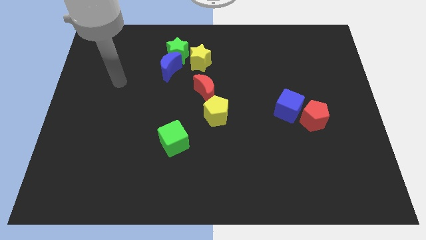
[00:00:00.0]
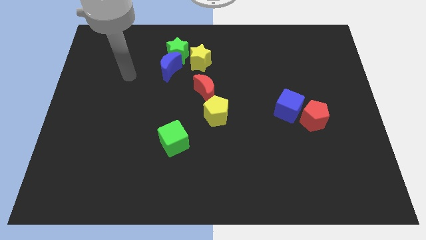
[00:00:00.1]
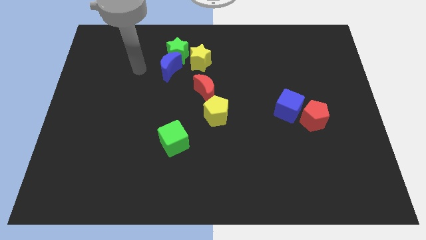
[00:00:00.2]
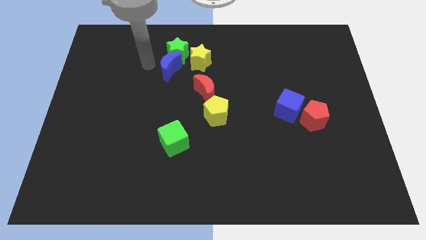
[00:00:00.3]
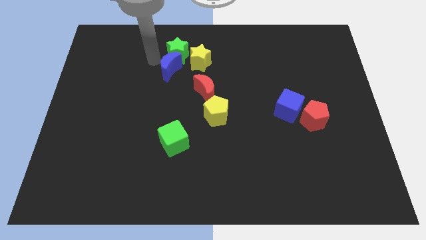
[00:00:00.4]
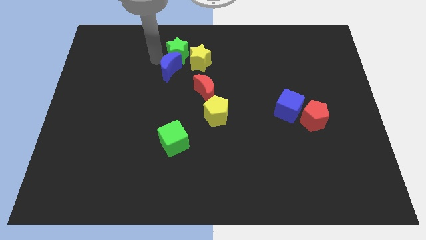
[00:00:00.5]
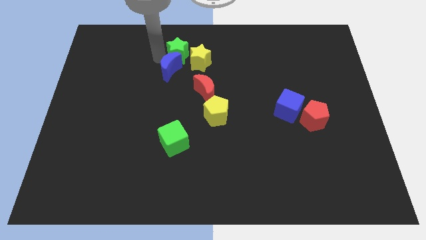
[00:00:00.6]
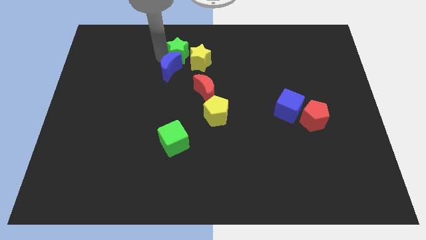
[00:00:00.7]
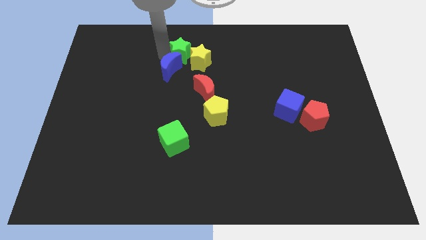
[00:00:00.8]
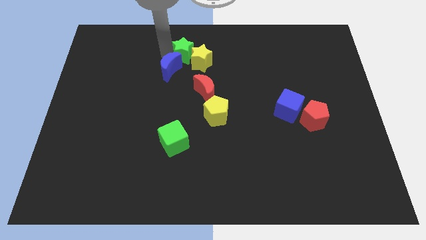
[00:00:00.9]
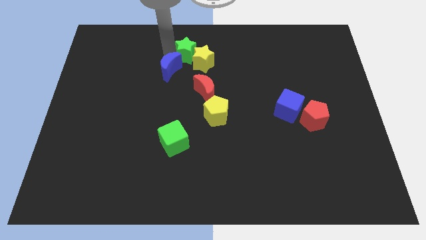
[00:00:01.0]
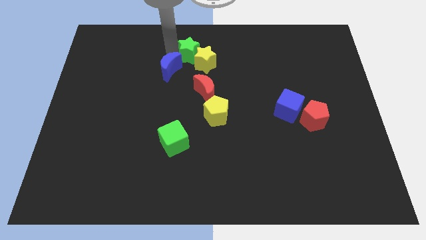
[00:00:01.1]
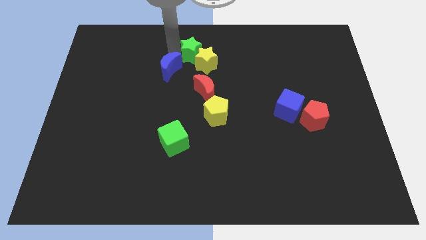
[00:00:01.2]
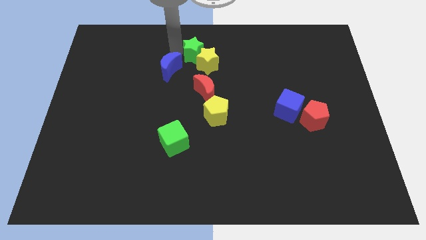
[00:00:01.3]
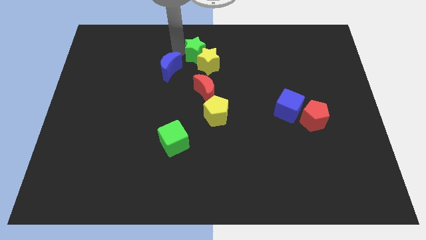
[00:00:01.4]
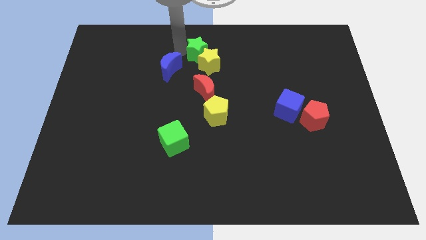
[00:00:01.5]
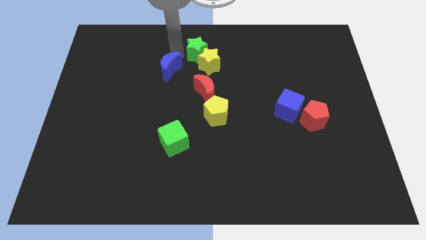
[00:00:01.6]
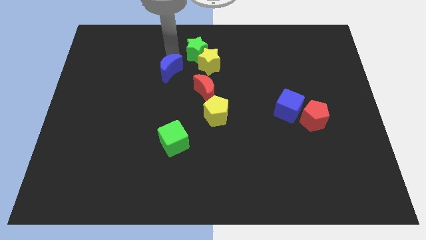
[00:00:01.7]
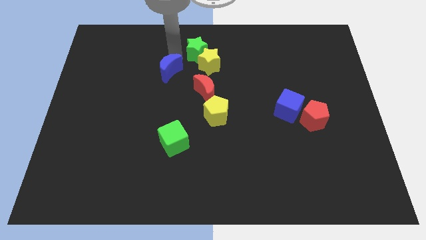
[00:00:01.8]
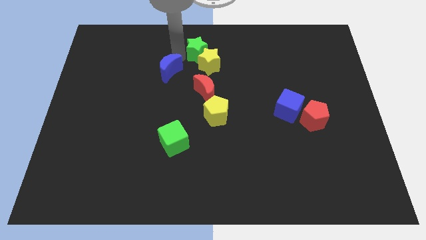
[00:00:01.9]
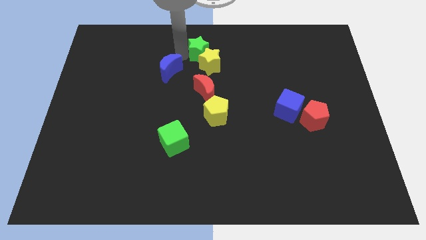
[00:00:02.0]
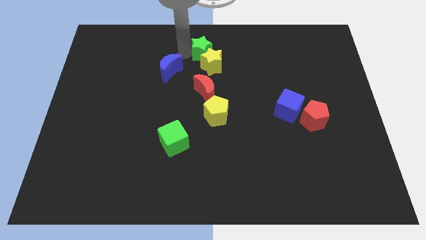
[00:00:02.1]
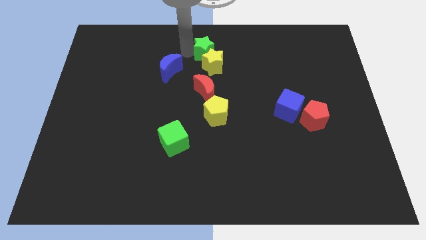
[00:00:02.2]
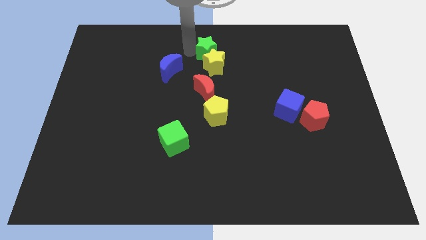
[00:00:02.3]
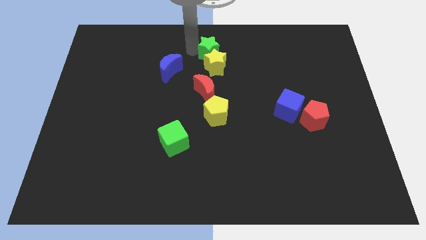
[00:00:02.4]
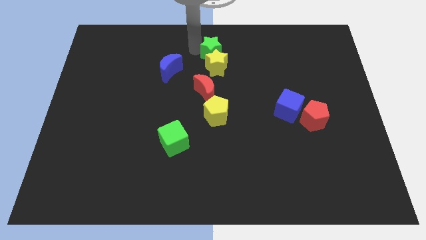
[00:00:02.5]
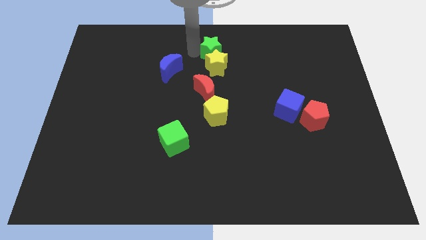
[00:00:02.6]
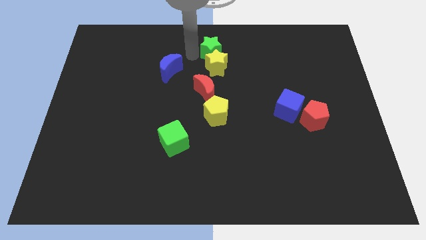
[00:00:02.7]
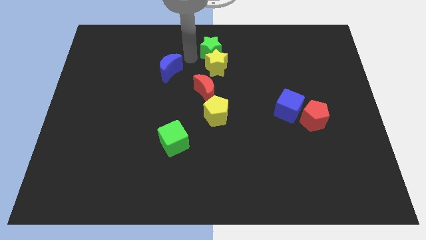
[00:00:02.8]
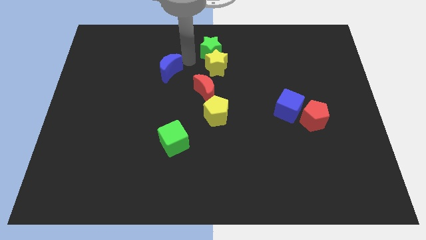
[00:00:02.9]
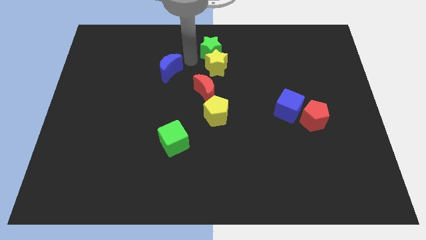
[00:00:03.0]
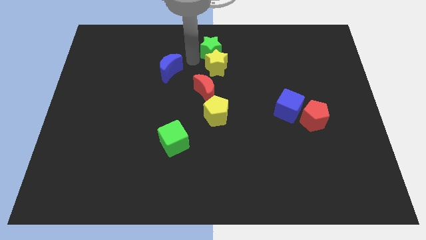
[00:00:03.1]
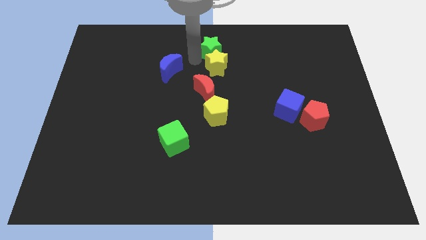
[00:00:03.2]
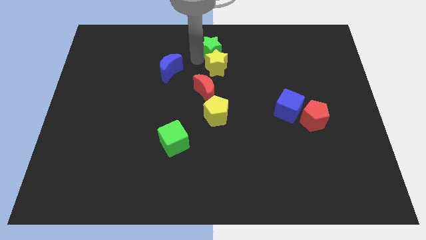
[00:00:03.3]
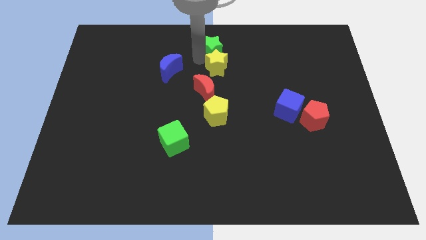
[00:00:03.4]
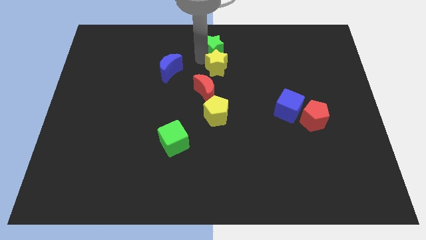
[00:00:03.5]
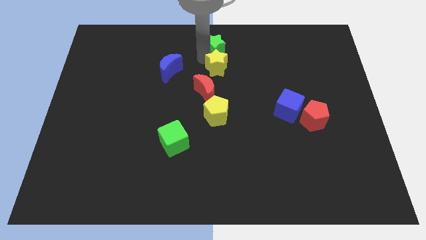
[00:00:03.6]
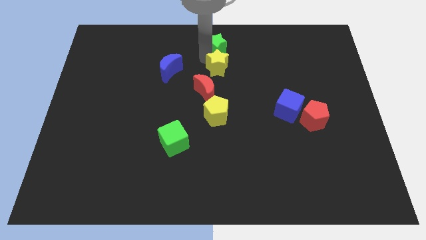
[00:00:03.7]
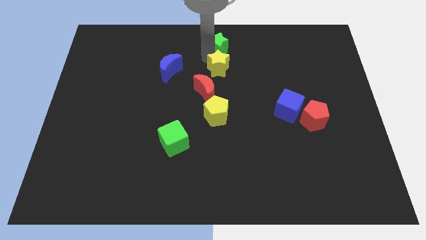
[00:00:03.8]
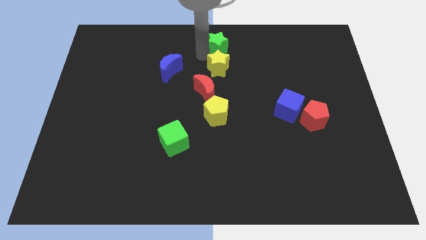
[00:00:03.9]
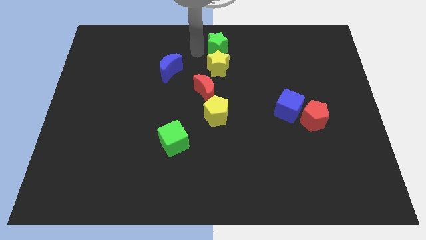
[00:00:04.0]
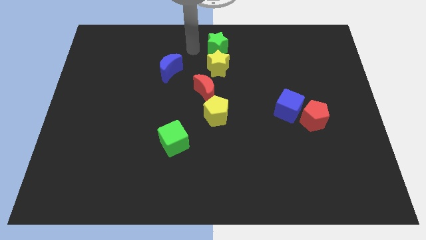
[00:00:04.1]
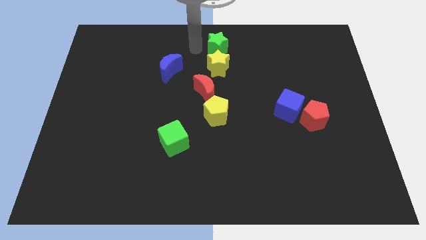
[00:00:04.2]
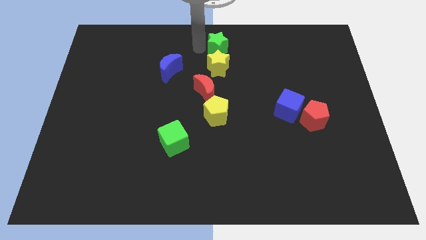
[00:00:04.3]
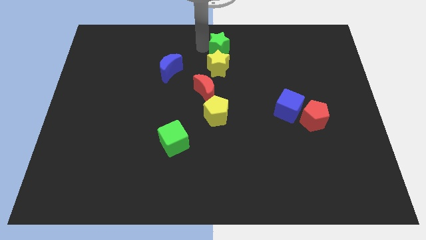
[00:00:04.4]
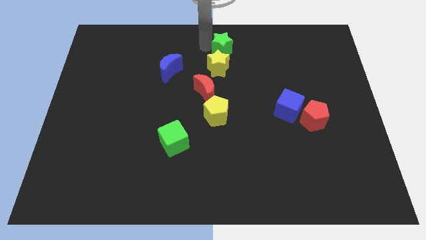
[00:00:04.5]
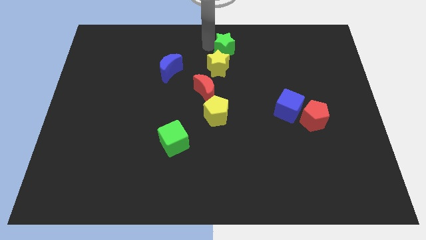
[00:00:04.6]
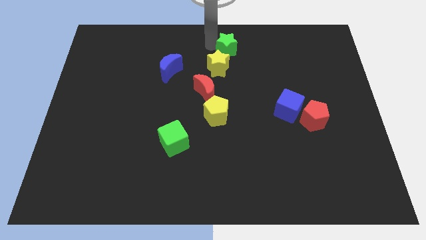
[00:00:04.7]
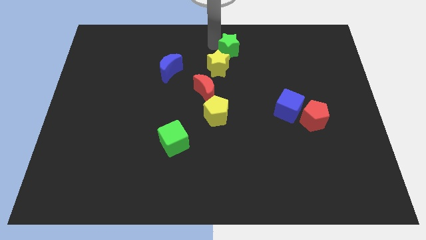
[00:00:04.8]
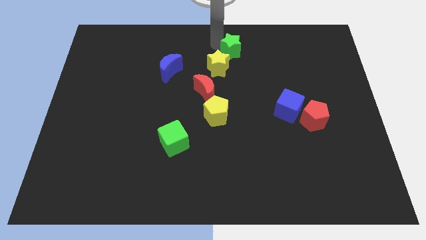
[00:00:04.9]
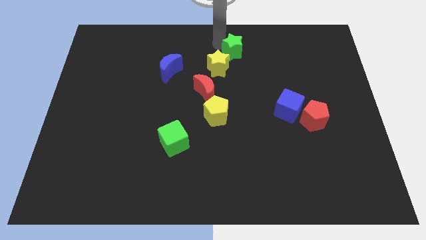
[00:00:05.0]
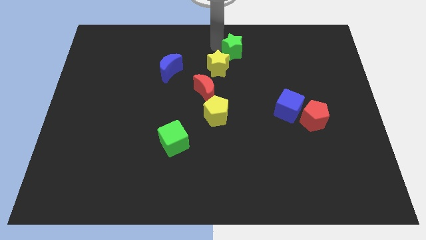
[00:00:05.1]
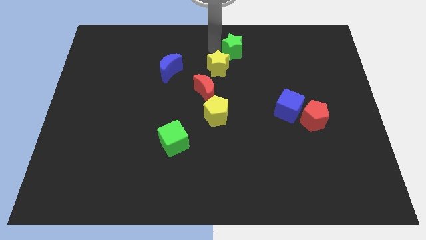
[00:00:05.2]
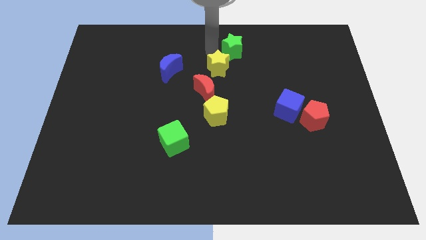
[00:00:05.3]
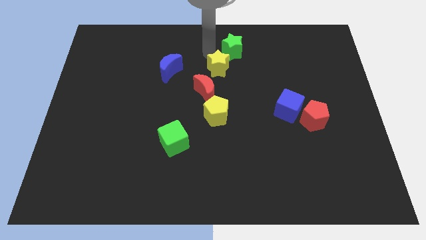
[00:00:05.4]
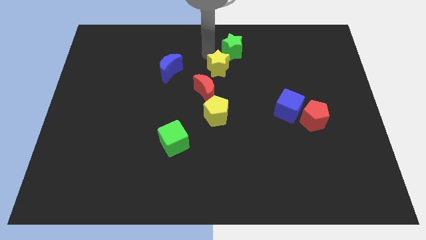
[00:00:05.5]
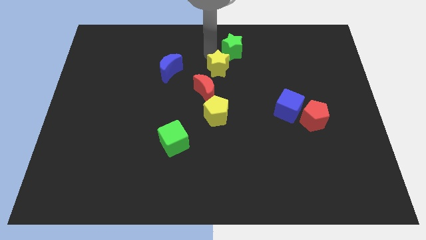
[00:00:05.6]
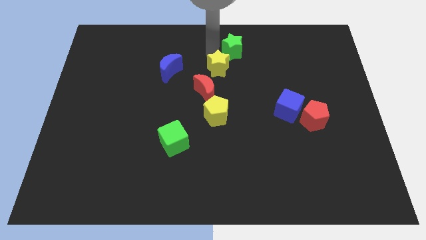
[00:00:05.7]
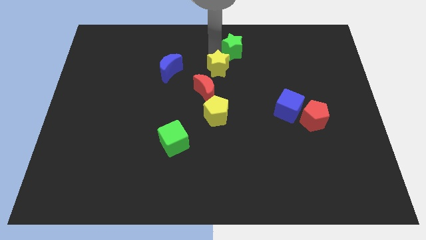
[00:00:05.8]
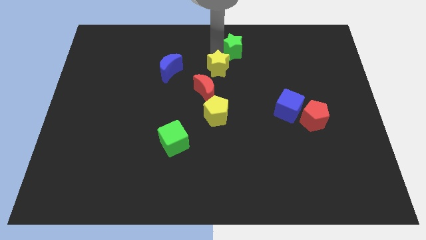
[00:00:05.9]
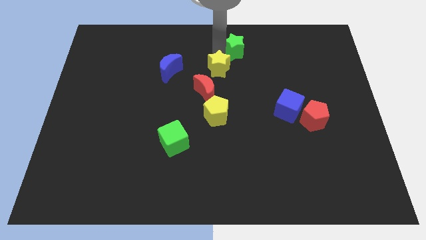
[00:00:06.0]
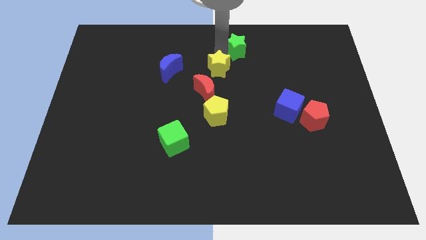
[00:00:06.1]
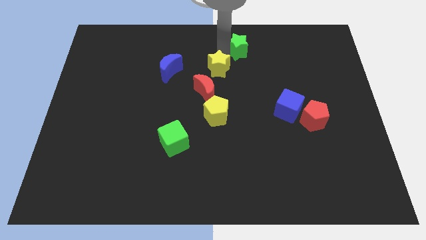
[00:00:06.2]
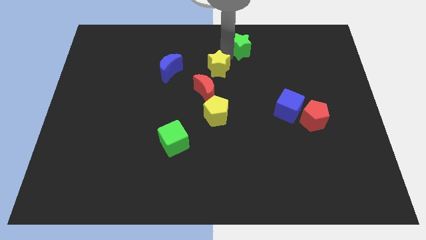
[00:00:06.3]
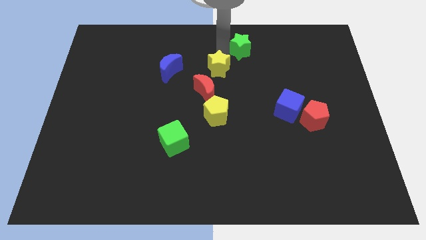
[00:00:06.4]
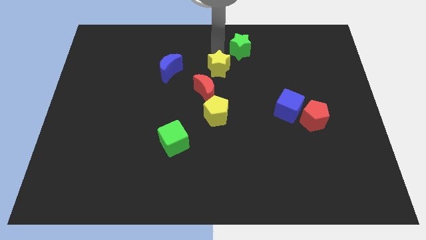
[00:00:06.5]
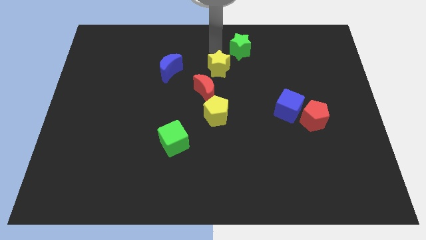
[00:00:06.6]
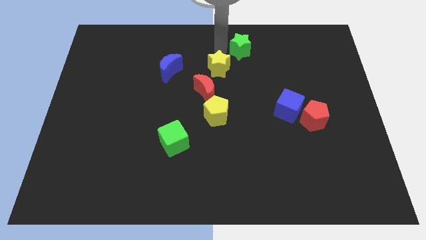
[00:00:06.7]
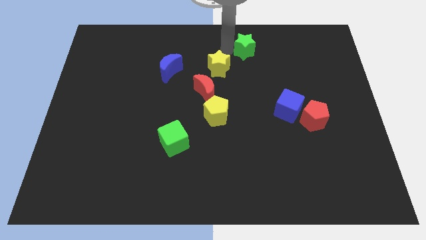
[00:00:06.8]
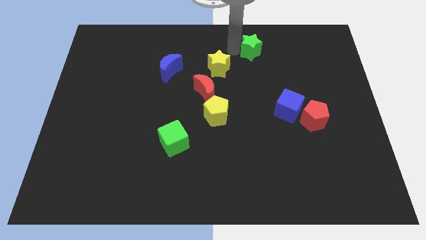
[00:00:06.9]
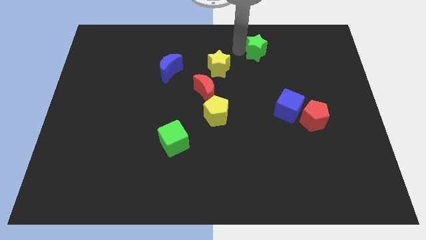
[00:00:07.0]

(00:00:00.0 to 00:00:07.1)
move the green star to the right

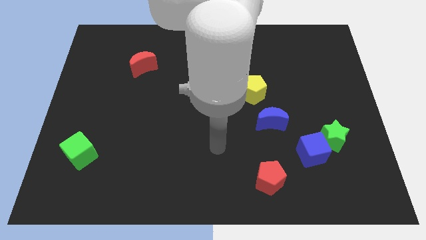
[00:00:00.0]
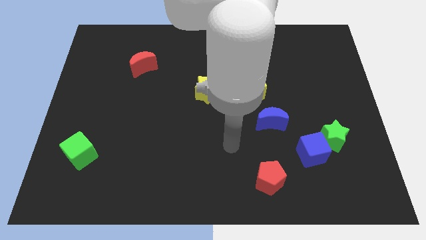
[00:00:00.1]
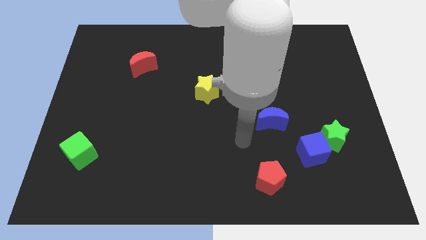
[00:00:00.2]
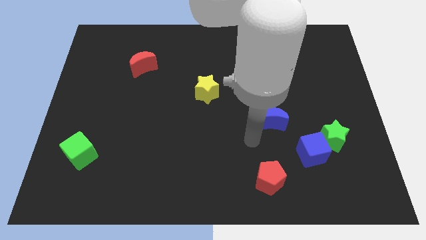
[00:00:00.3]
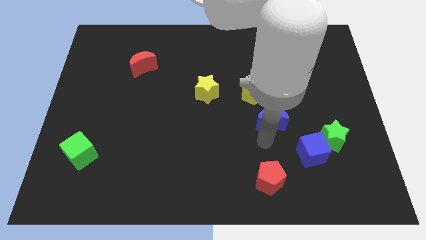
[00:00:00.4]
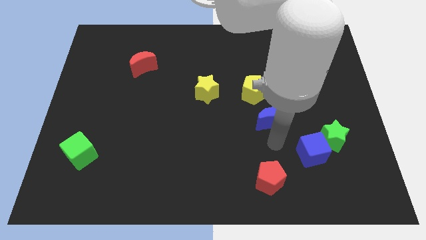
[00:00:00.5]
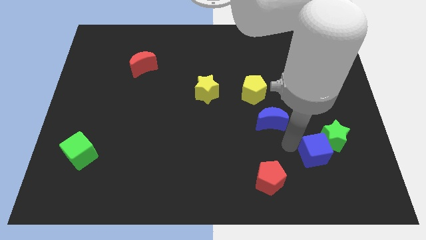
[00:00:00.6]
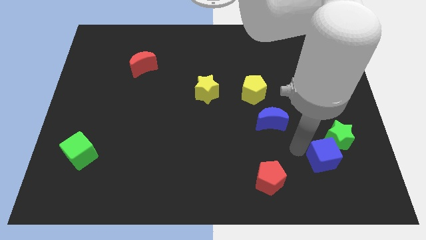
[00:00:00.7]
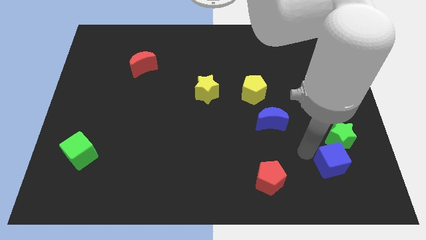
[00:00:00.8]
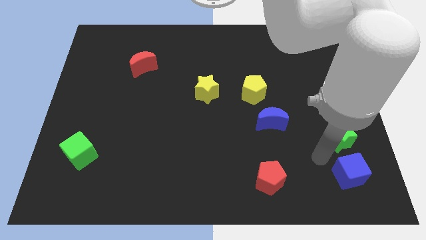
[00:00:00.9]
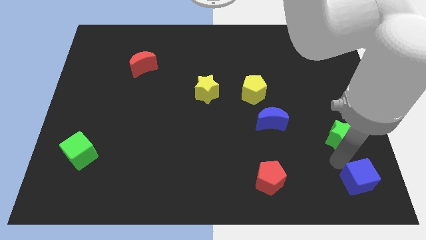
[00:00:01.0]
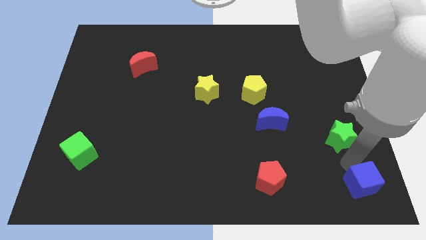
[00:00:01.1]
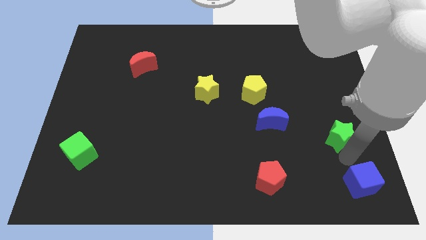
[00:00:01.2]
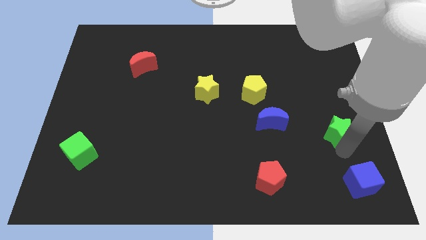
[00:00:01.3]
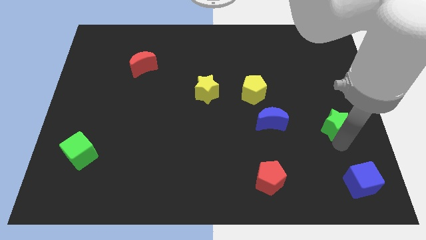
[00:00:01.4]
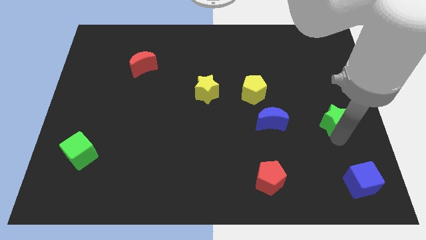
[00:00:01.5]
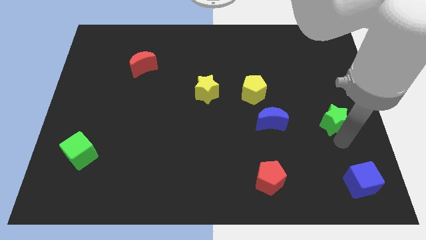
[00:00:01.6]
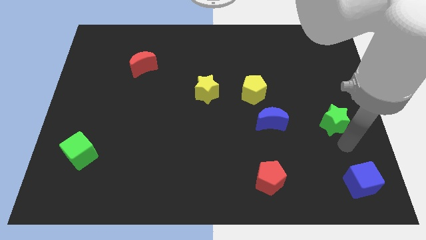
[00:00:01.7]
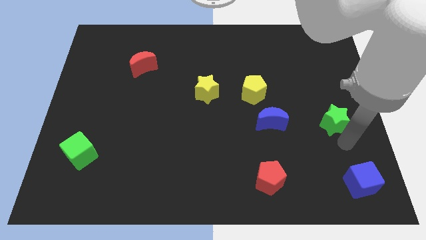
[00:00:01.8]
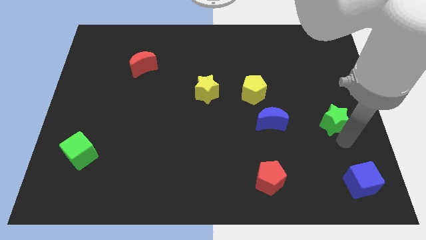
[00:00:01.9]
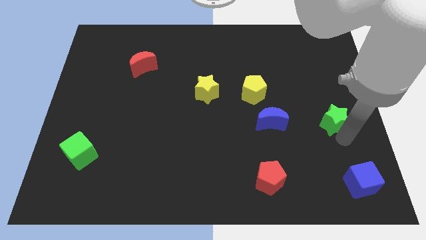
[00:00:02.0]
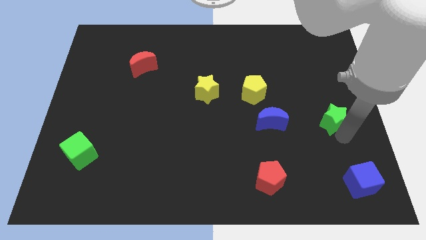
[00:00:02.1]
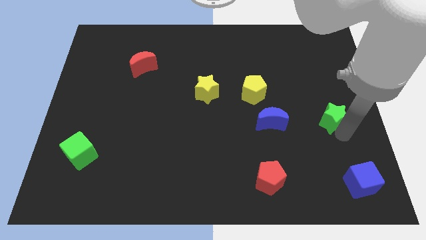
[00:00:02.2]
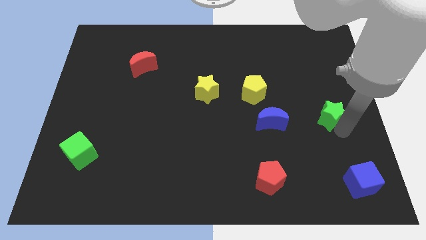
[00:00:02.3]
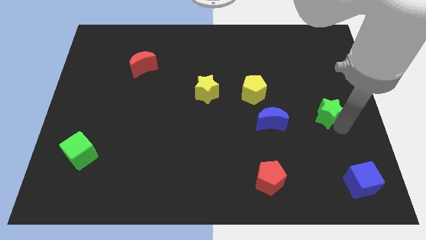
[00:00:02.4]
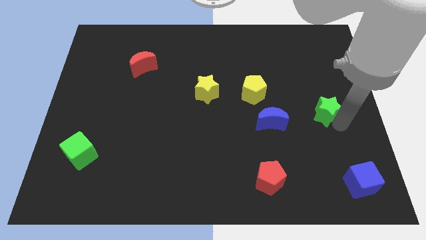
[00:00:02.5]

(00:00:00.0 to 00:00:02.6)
slightly push the green star upwards
